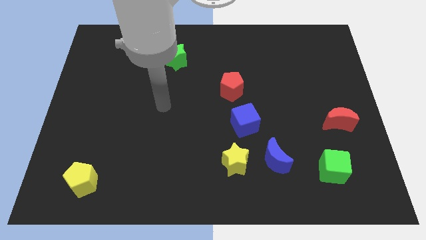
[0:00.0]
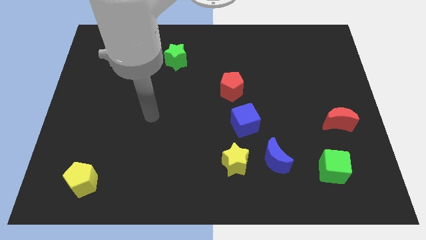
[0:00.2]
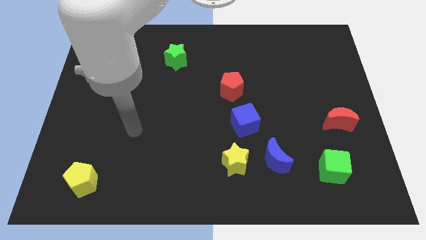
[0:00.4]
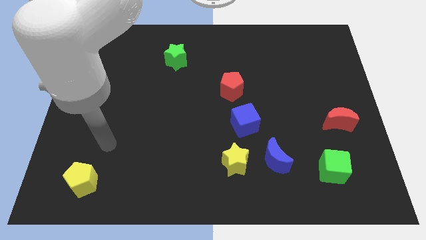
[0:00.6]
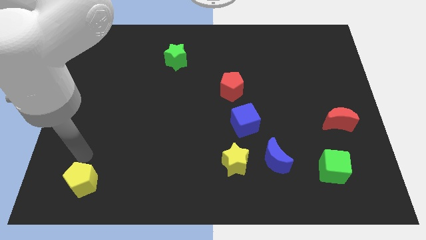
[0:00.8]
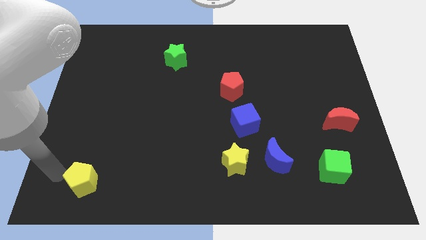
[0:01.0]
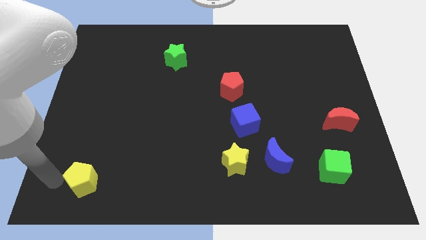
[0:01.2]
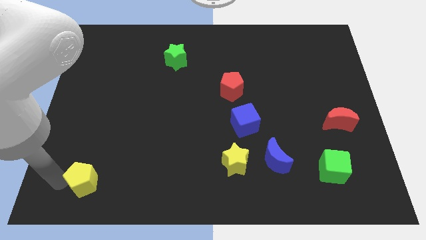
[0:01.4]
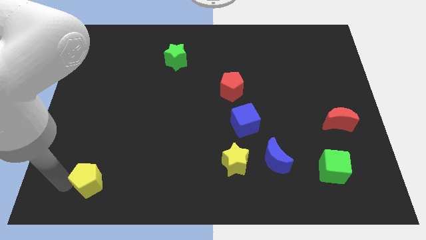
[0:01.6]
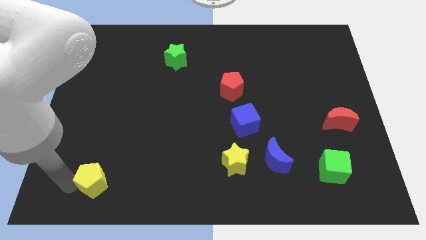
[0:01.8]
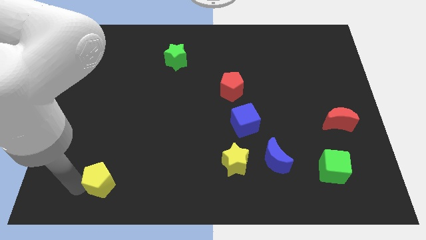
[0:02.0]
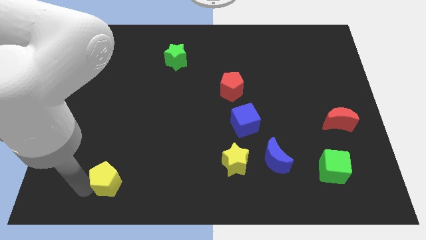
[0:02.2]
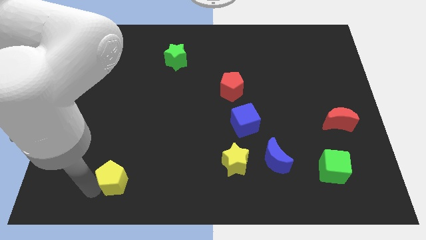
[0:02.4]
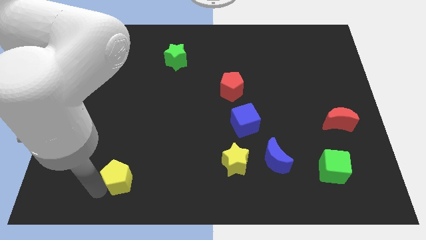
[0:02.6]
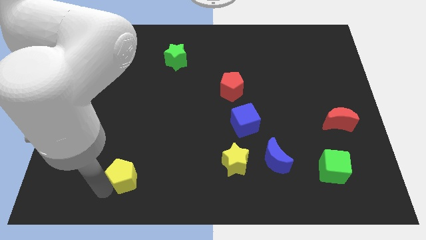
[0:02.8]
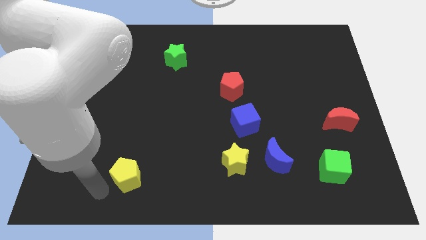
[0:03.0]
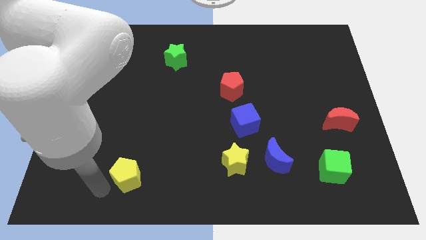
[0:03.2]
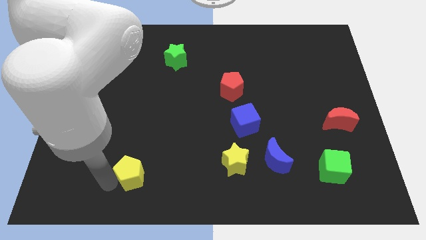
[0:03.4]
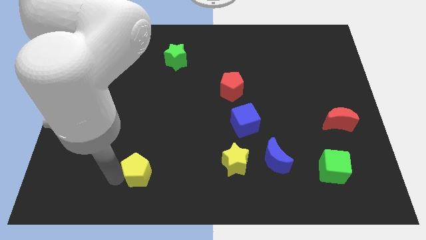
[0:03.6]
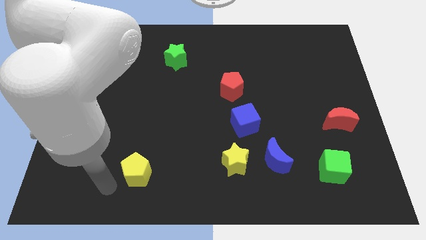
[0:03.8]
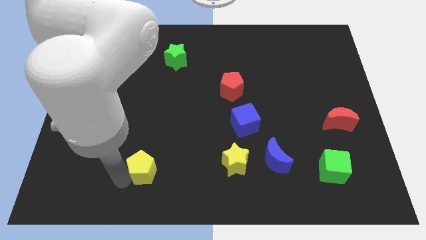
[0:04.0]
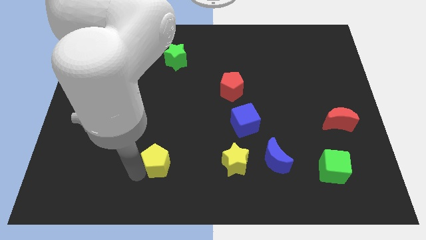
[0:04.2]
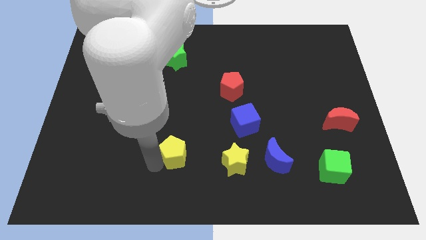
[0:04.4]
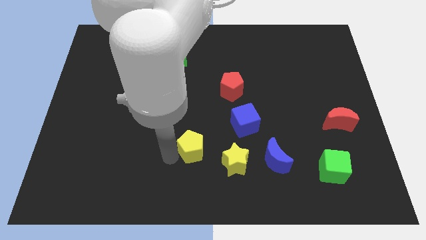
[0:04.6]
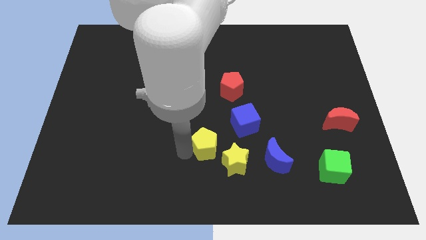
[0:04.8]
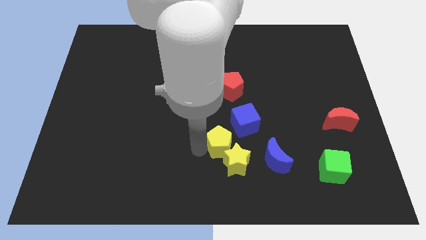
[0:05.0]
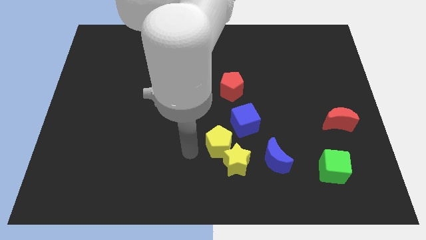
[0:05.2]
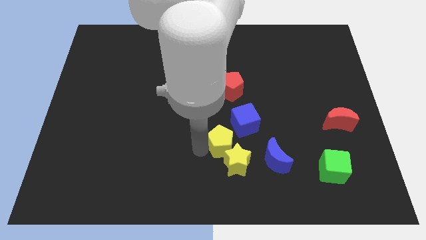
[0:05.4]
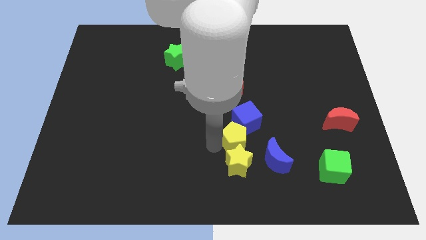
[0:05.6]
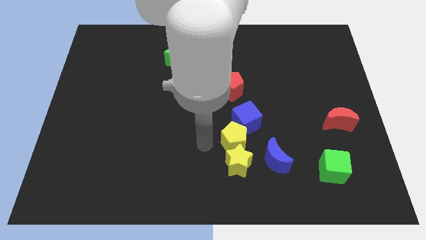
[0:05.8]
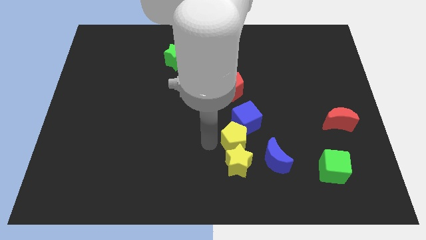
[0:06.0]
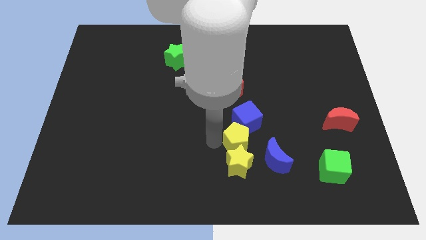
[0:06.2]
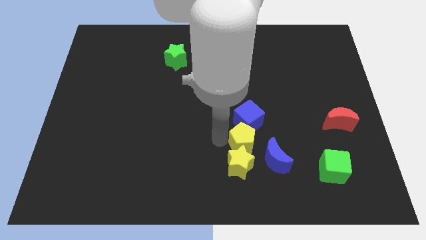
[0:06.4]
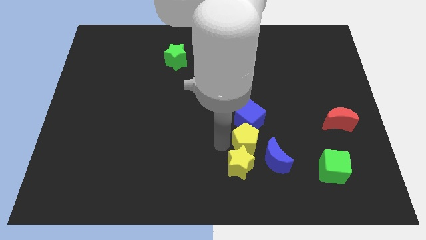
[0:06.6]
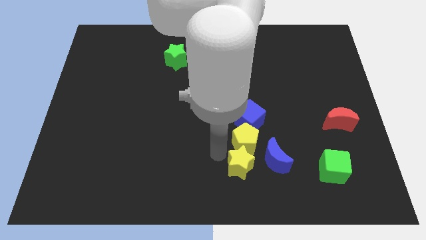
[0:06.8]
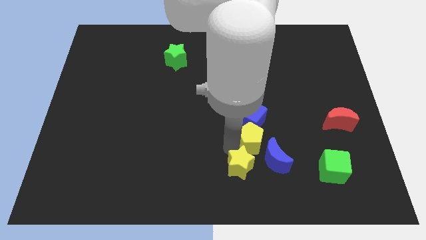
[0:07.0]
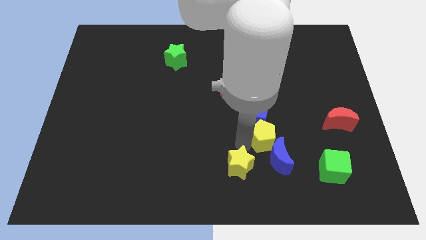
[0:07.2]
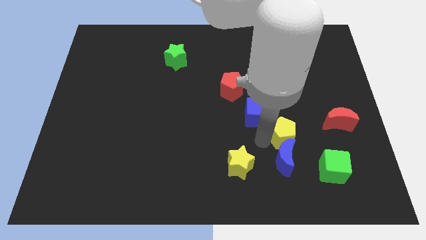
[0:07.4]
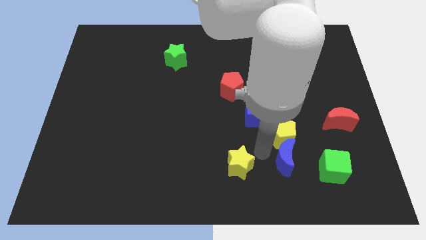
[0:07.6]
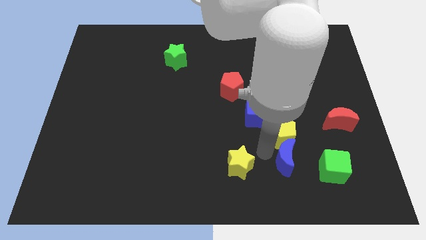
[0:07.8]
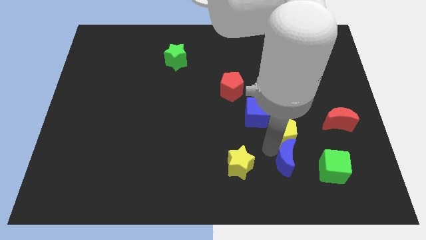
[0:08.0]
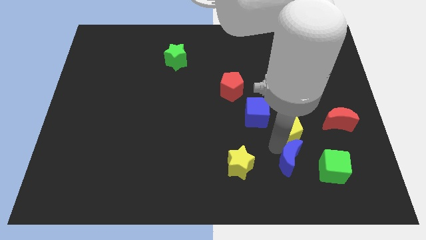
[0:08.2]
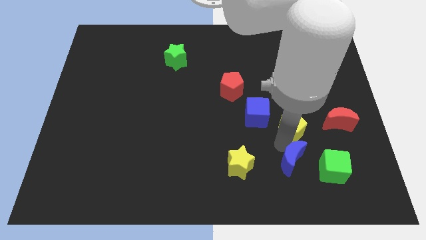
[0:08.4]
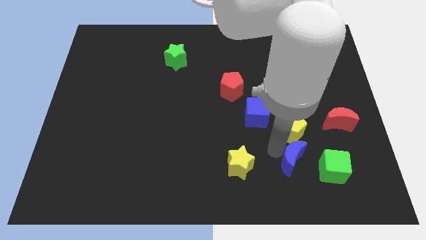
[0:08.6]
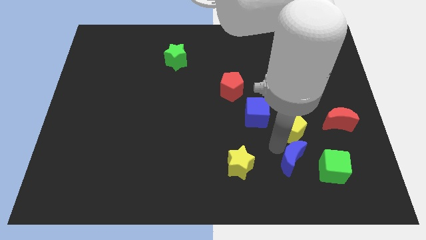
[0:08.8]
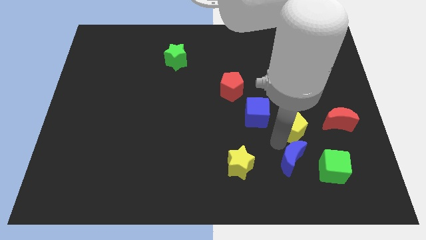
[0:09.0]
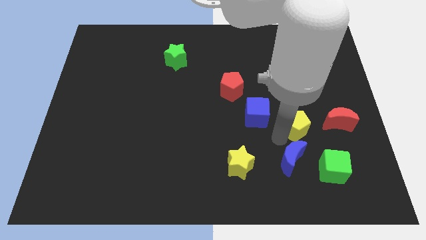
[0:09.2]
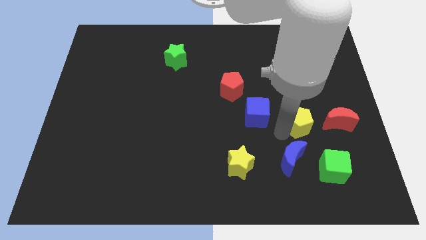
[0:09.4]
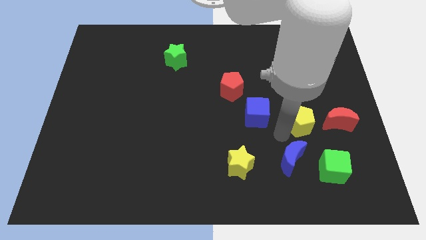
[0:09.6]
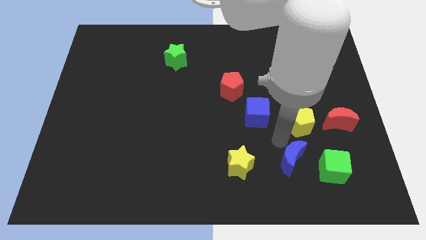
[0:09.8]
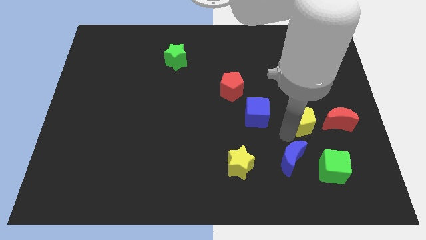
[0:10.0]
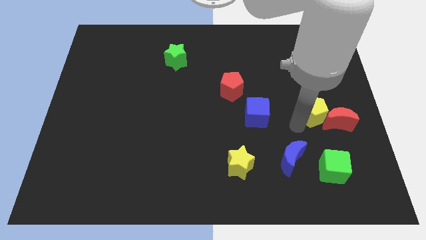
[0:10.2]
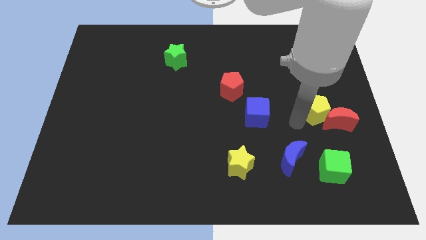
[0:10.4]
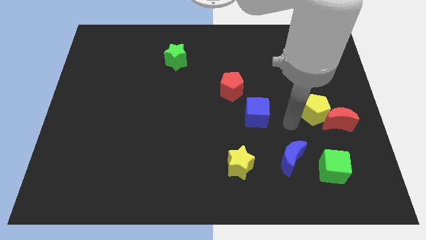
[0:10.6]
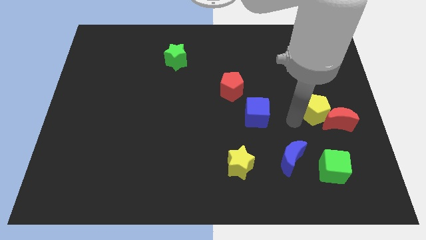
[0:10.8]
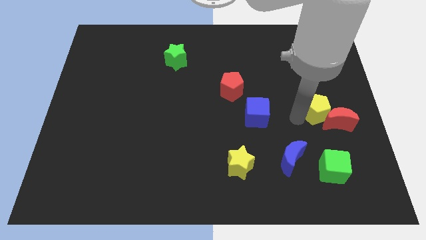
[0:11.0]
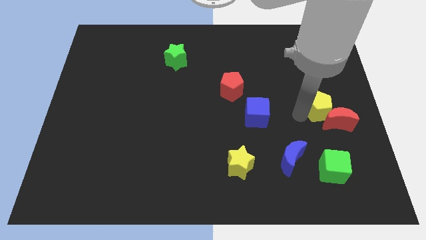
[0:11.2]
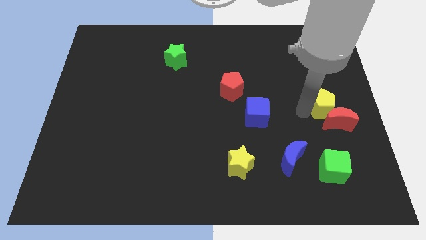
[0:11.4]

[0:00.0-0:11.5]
push the yellow pentagon to the right side

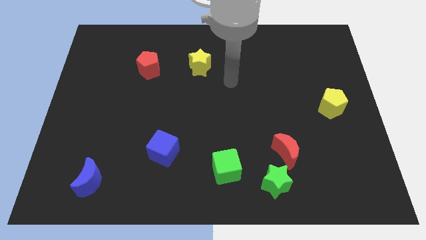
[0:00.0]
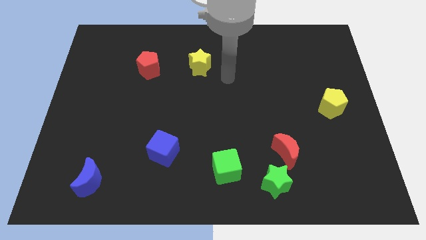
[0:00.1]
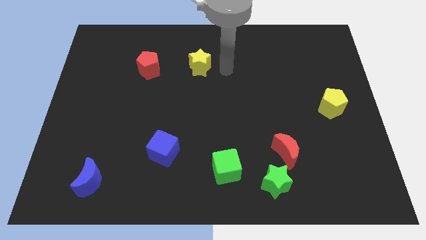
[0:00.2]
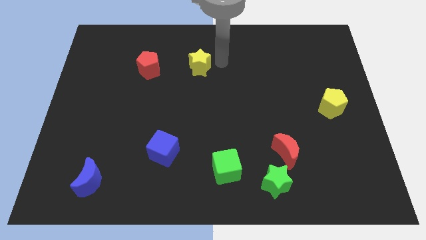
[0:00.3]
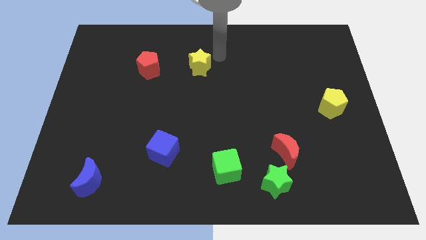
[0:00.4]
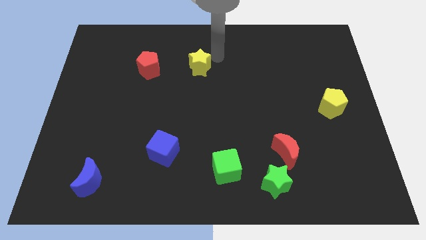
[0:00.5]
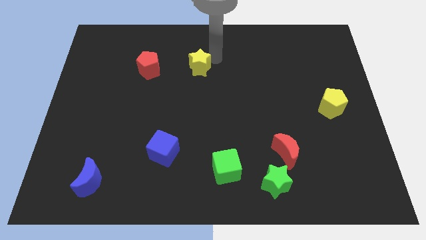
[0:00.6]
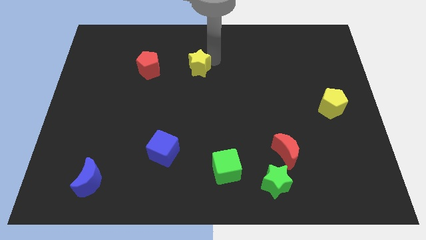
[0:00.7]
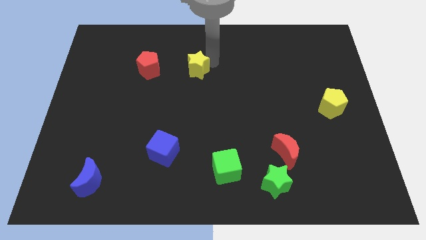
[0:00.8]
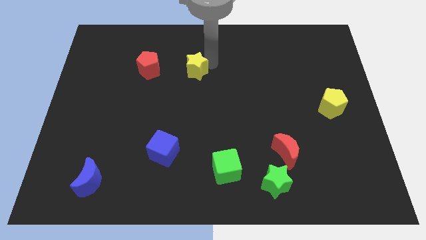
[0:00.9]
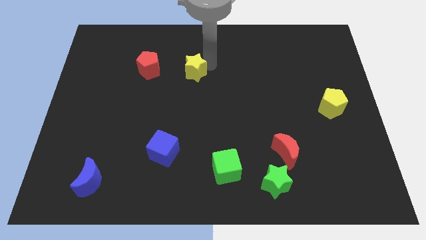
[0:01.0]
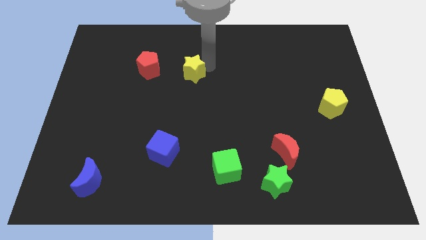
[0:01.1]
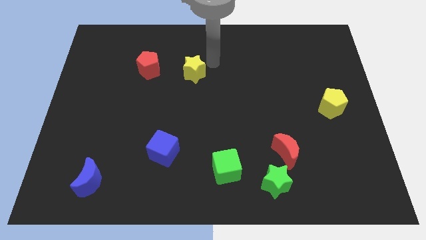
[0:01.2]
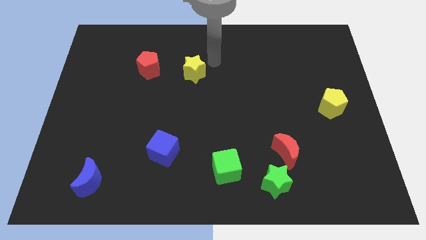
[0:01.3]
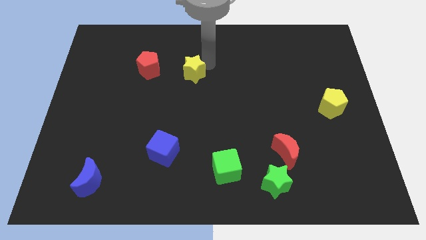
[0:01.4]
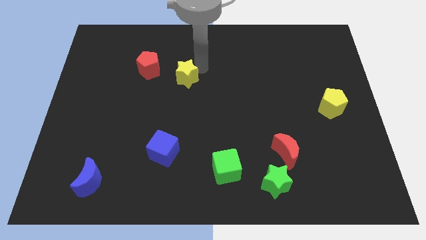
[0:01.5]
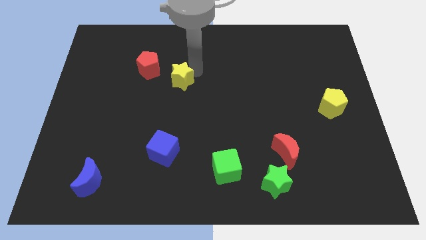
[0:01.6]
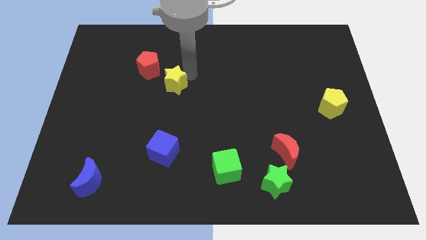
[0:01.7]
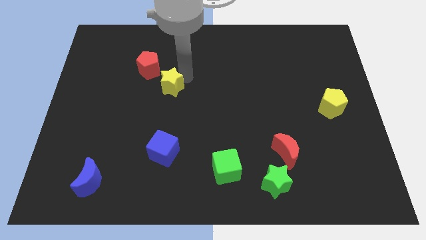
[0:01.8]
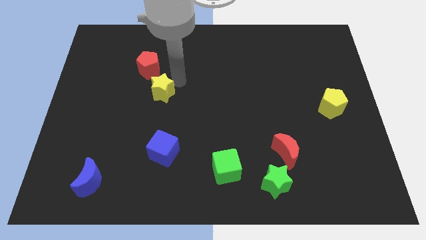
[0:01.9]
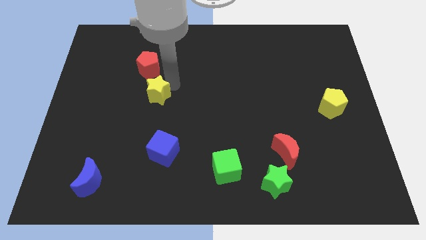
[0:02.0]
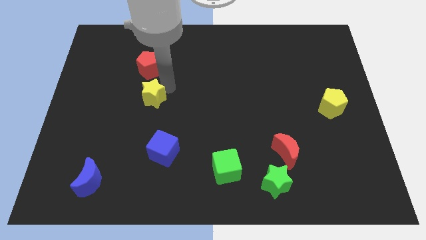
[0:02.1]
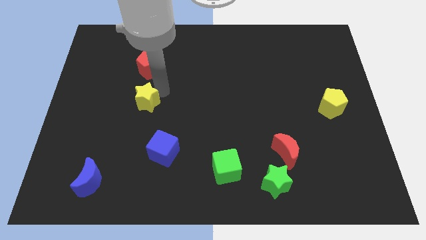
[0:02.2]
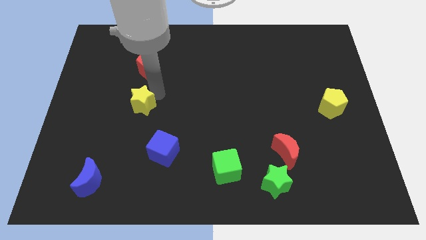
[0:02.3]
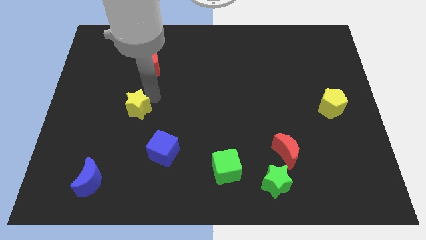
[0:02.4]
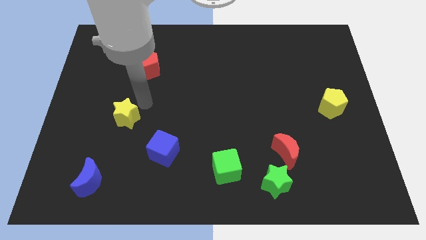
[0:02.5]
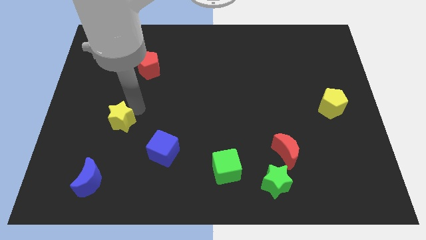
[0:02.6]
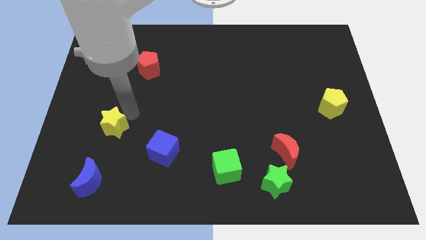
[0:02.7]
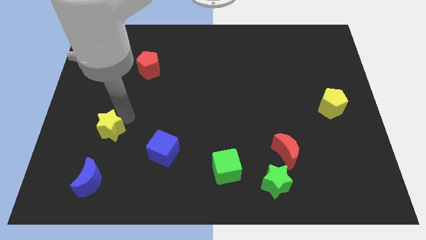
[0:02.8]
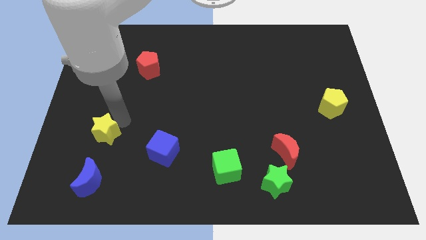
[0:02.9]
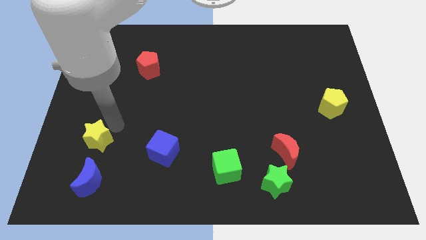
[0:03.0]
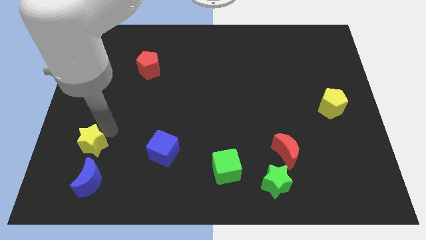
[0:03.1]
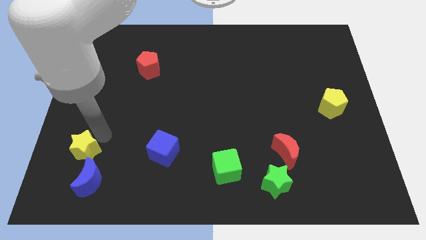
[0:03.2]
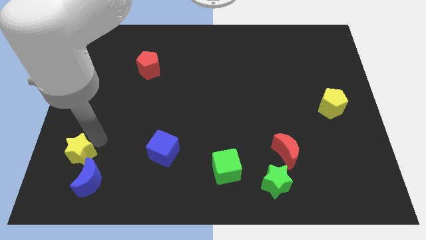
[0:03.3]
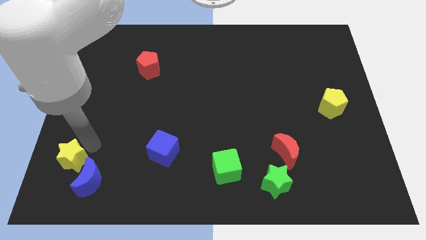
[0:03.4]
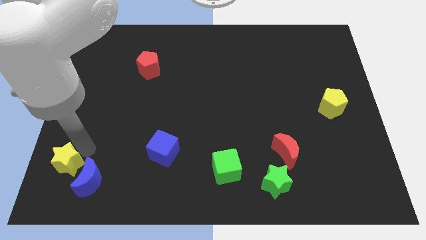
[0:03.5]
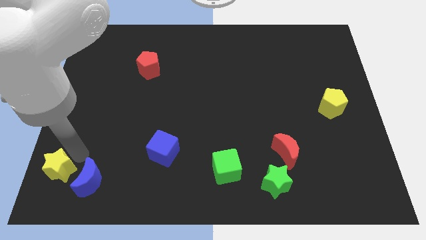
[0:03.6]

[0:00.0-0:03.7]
put the yellow star to the bottom left
